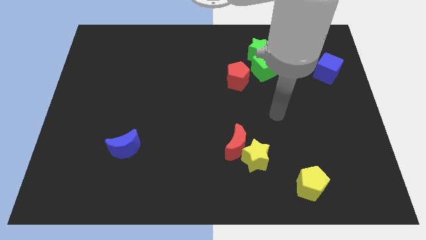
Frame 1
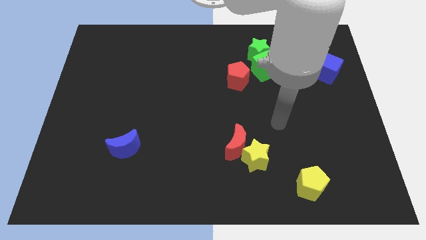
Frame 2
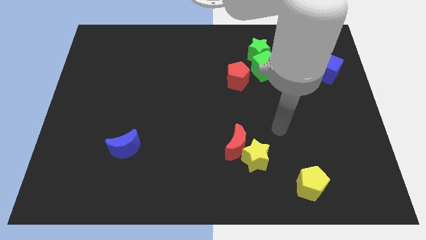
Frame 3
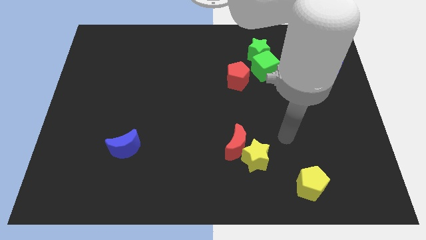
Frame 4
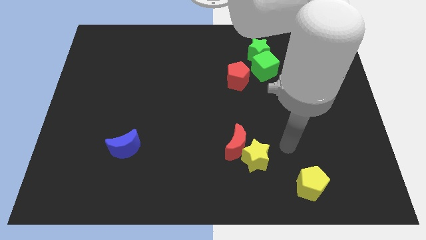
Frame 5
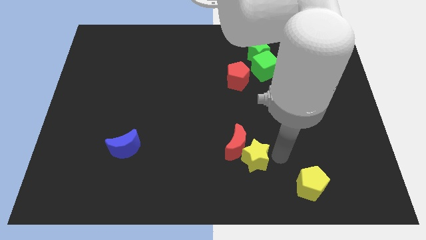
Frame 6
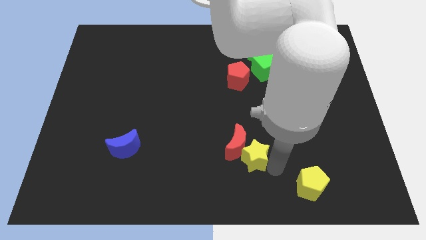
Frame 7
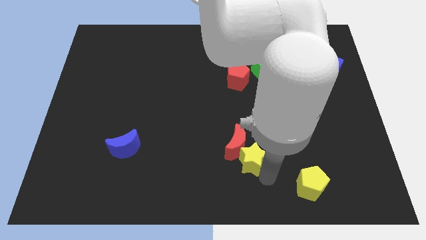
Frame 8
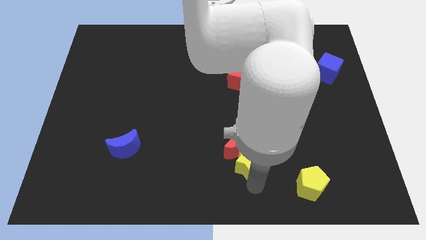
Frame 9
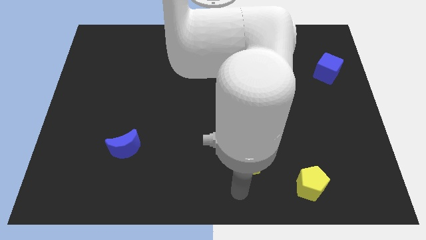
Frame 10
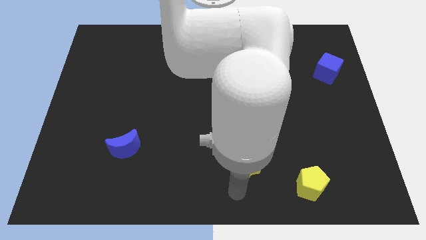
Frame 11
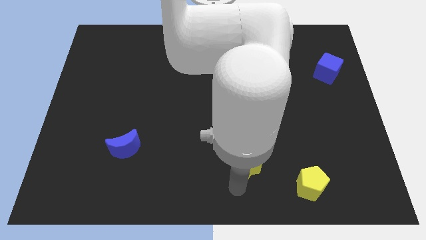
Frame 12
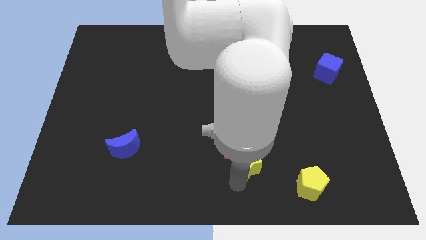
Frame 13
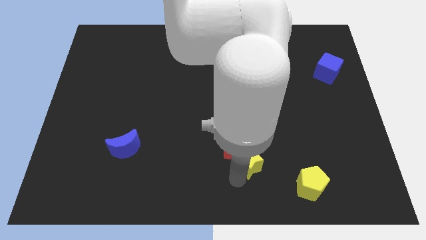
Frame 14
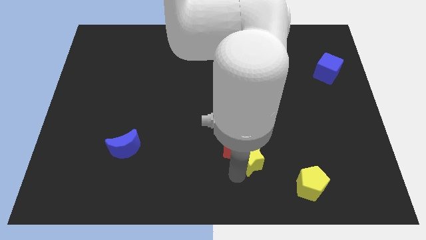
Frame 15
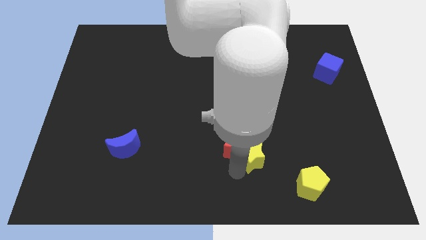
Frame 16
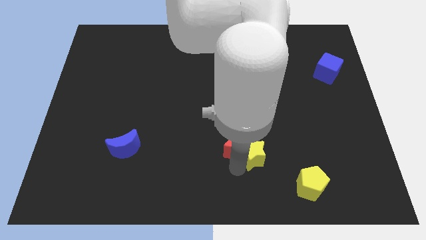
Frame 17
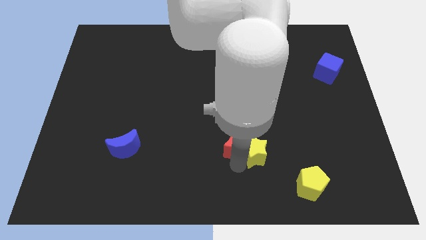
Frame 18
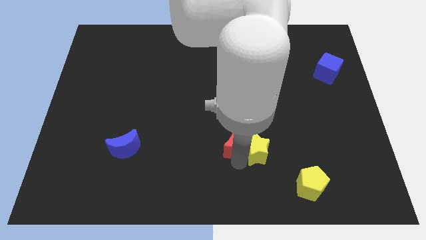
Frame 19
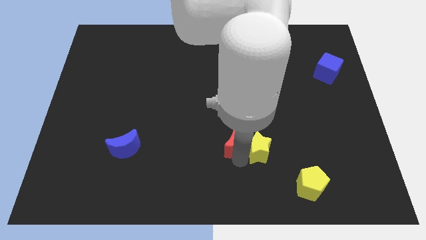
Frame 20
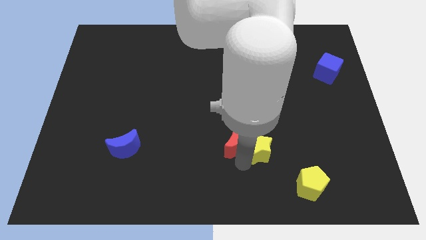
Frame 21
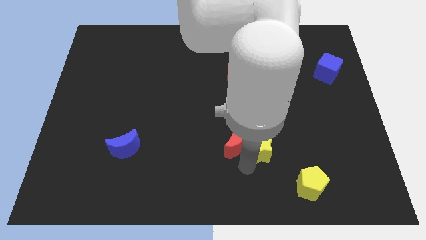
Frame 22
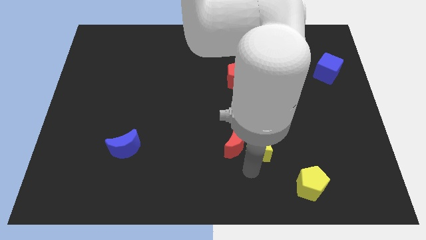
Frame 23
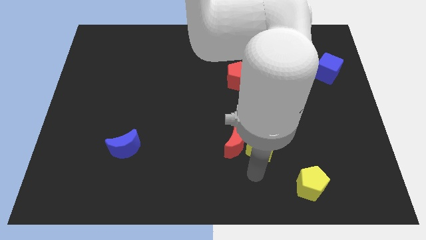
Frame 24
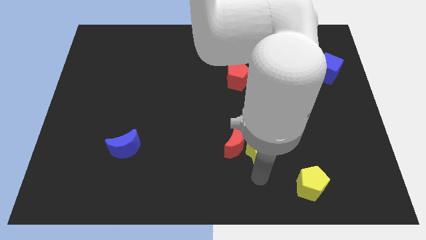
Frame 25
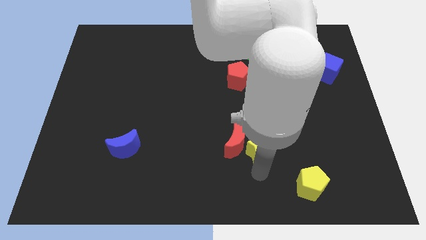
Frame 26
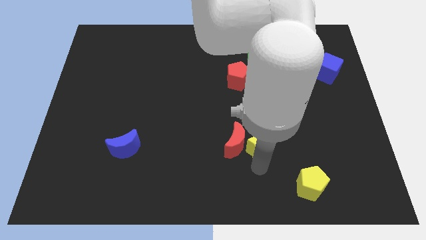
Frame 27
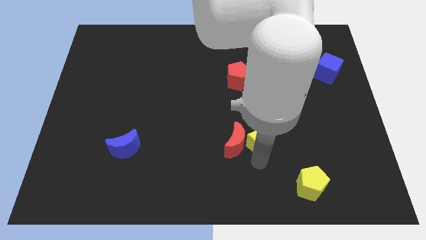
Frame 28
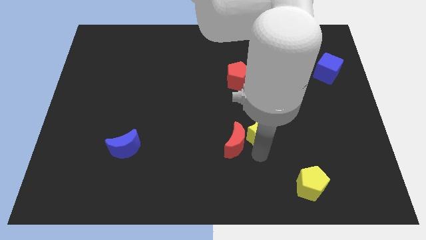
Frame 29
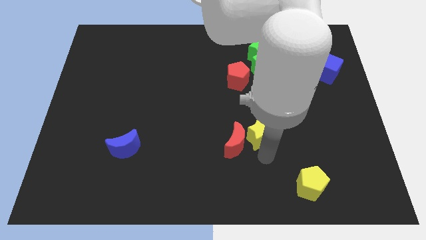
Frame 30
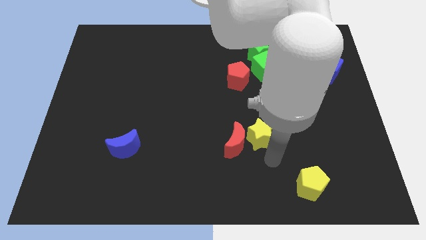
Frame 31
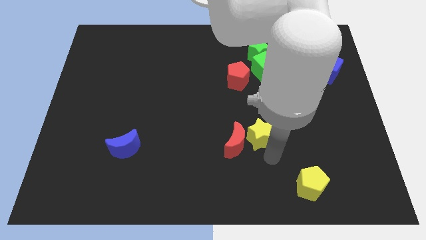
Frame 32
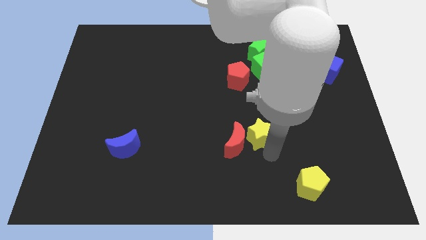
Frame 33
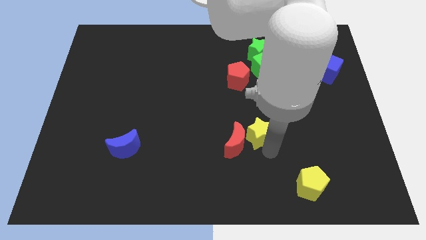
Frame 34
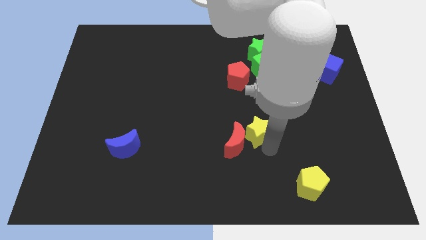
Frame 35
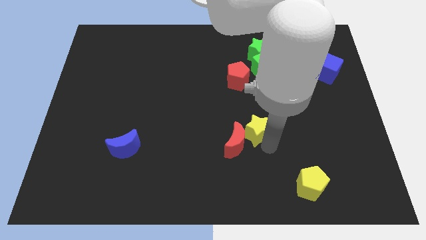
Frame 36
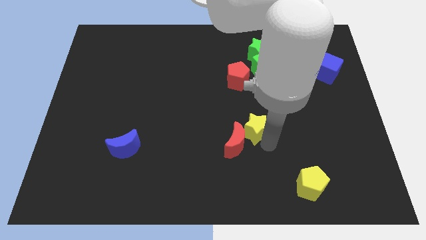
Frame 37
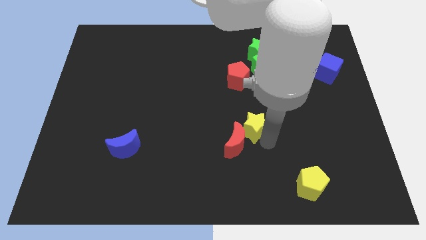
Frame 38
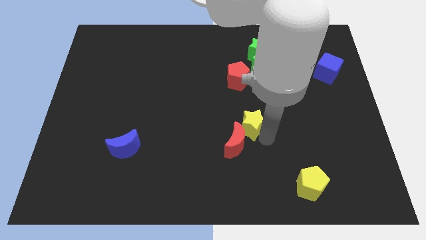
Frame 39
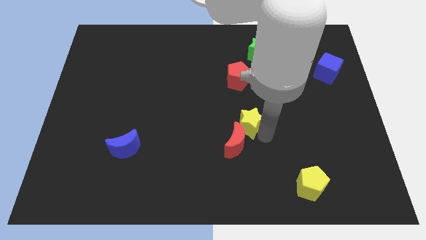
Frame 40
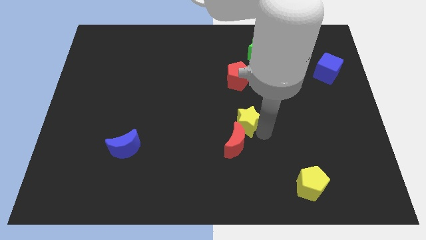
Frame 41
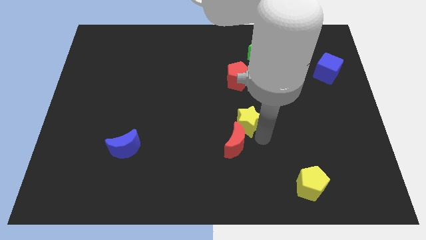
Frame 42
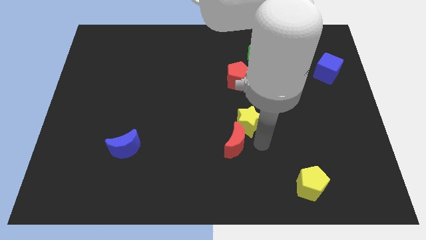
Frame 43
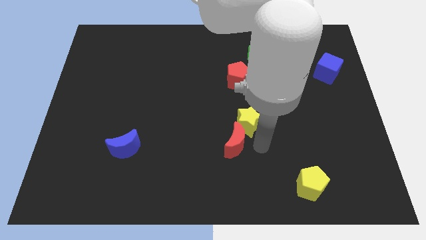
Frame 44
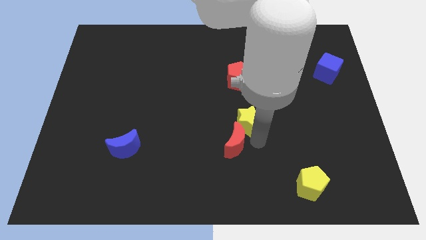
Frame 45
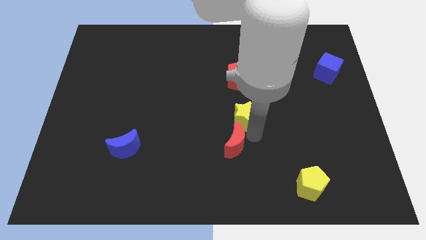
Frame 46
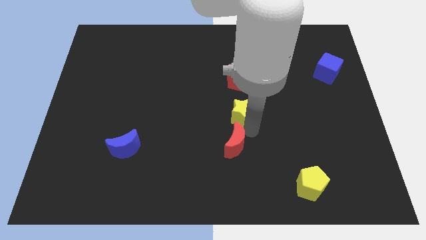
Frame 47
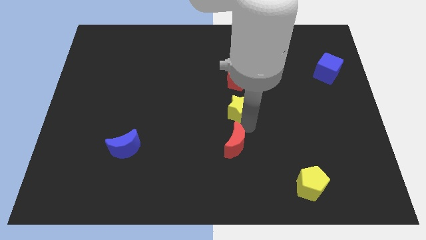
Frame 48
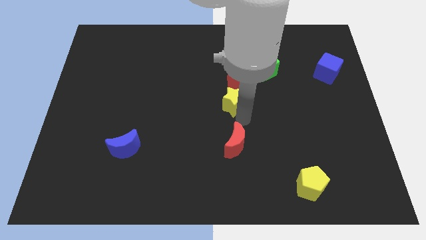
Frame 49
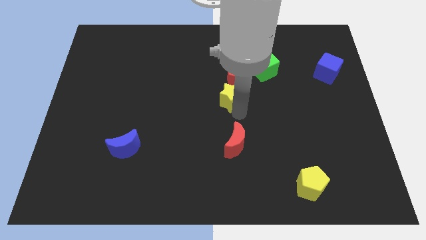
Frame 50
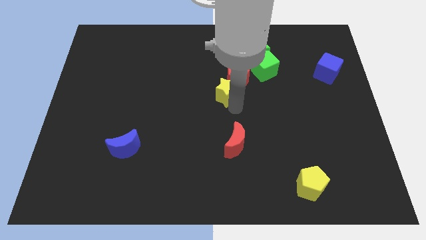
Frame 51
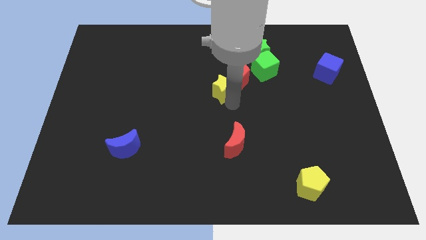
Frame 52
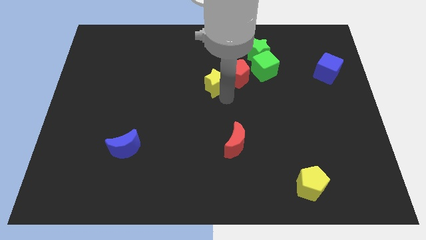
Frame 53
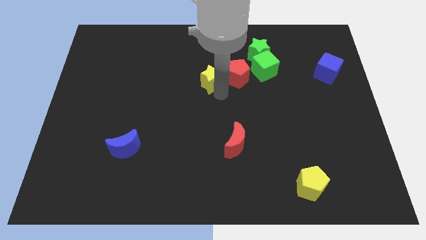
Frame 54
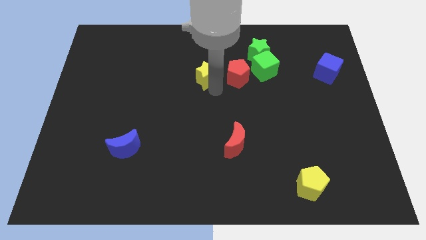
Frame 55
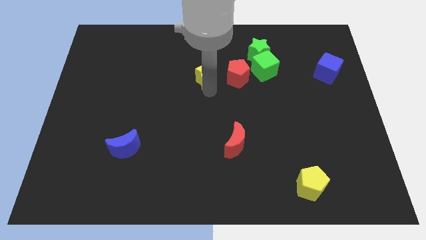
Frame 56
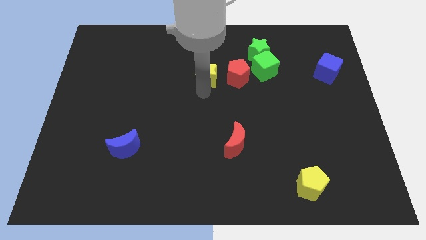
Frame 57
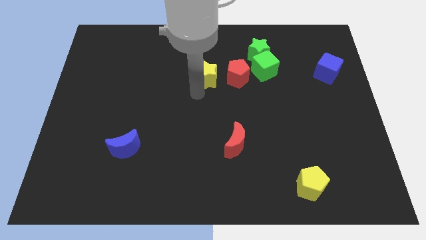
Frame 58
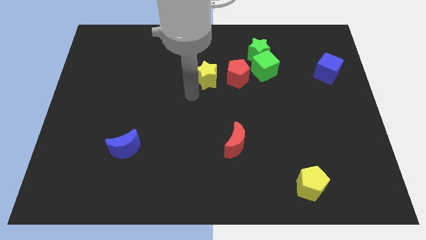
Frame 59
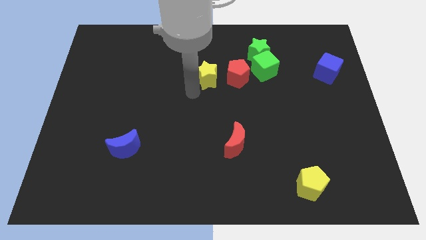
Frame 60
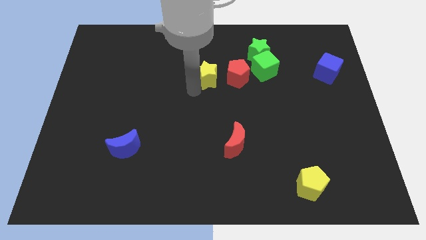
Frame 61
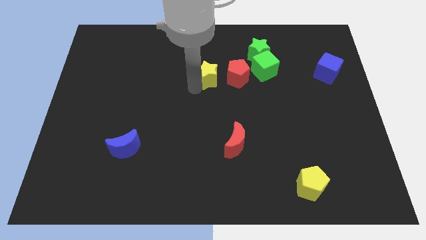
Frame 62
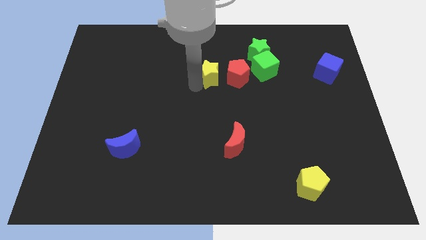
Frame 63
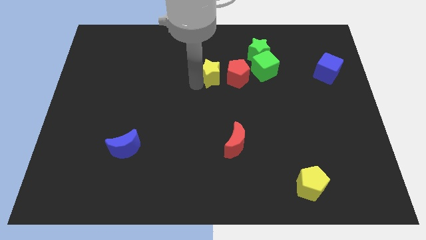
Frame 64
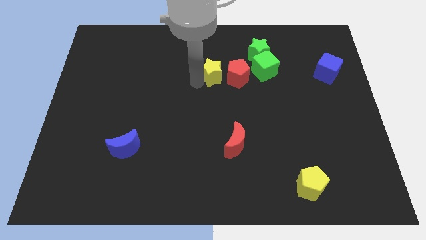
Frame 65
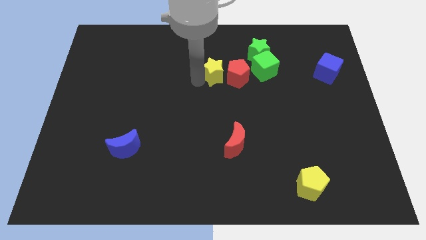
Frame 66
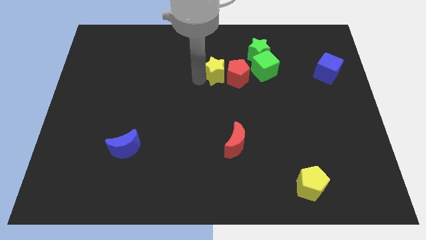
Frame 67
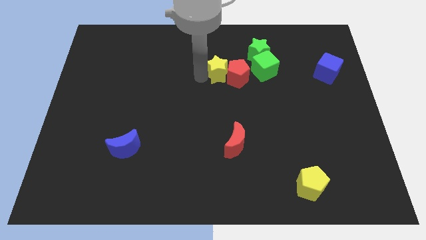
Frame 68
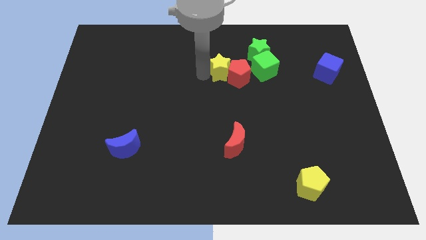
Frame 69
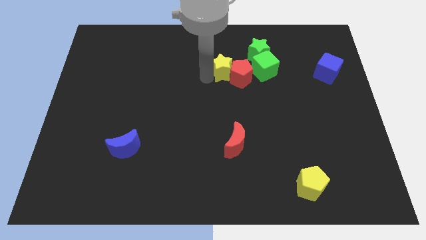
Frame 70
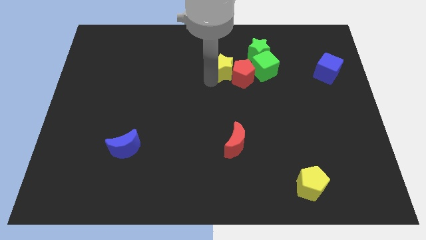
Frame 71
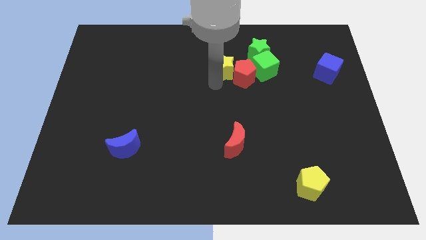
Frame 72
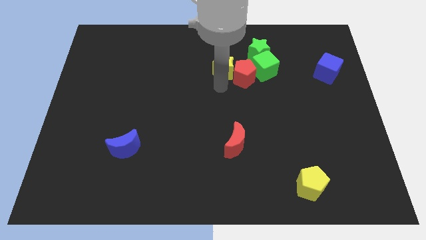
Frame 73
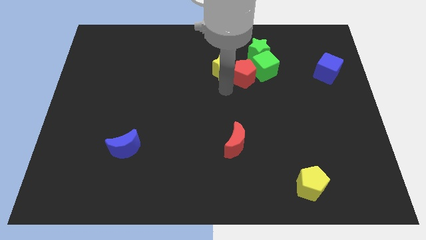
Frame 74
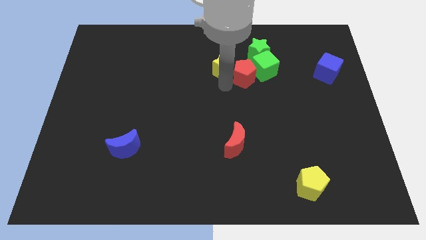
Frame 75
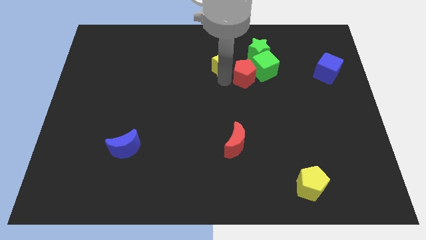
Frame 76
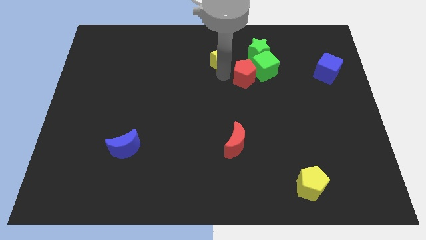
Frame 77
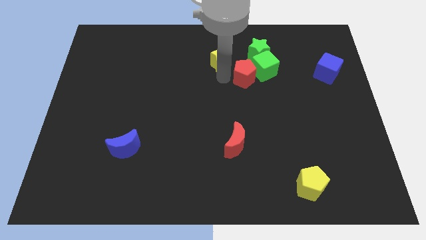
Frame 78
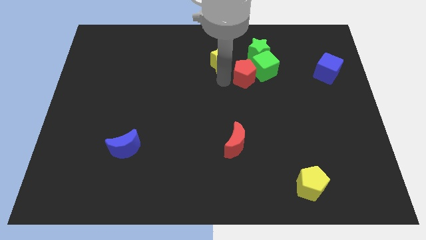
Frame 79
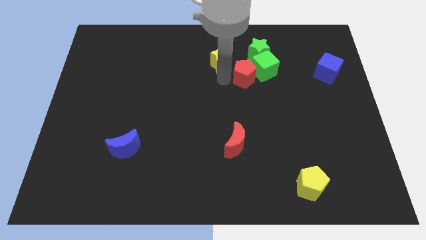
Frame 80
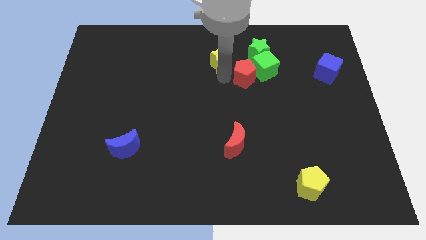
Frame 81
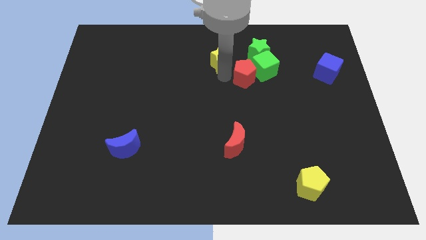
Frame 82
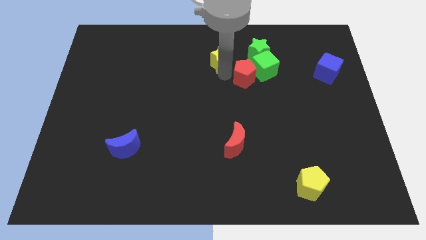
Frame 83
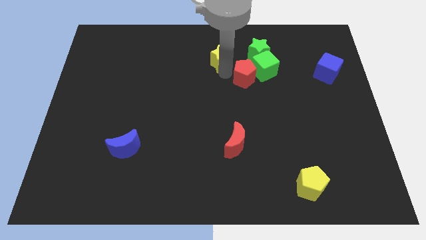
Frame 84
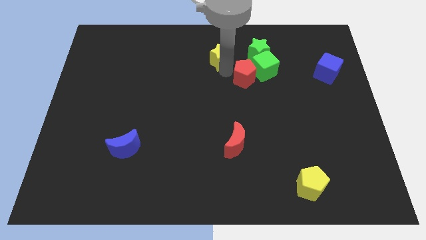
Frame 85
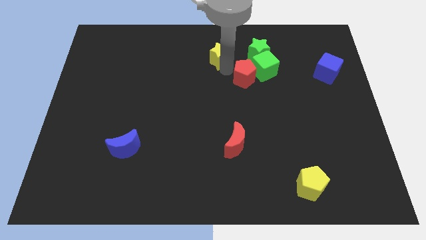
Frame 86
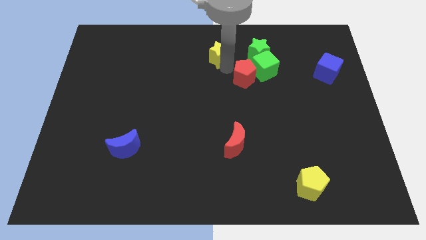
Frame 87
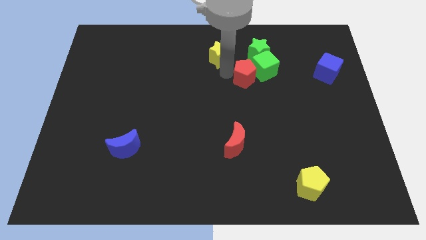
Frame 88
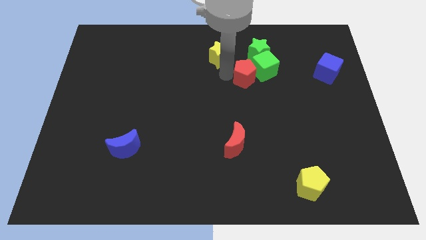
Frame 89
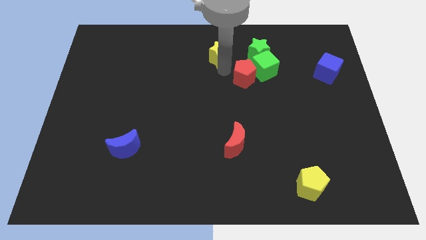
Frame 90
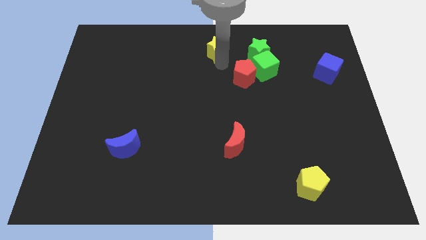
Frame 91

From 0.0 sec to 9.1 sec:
slide the yellow star to the towards your base
